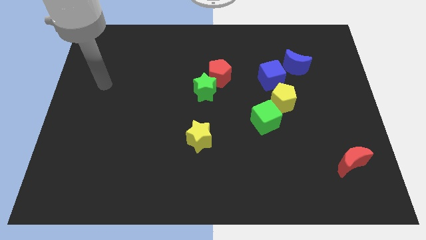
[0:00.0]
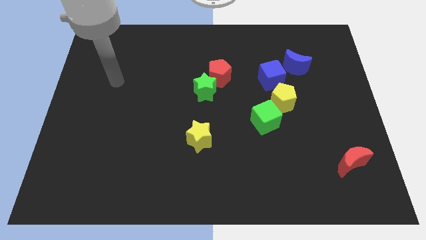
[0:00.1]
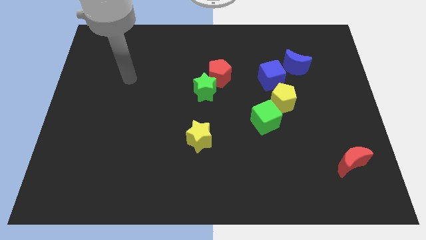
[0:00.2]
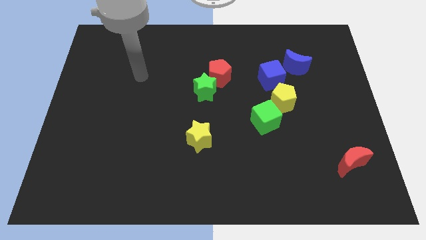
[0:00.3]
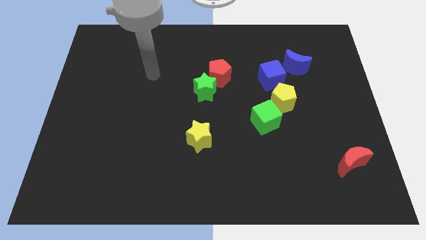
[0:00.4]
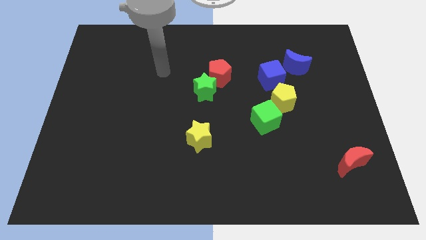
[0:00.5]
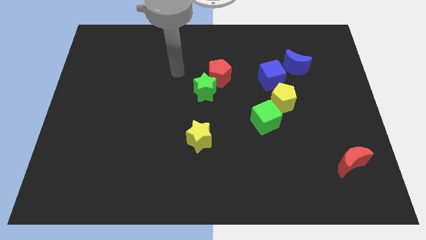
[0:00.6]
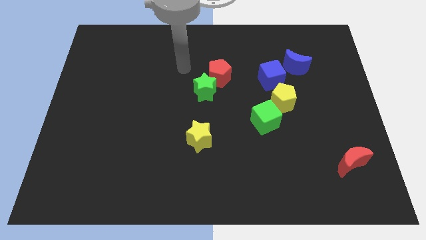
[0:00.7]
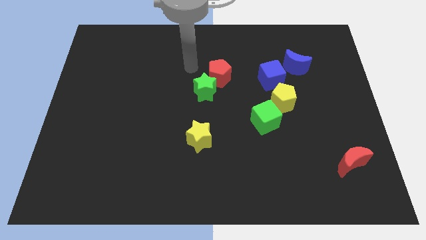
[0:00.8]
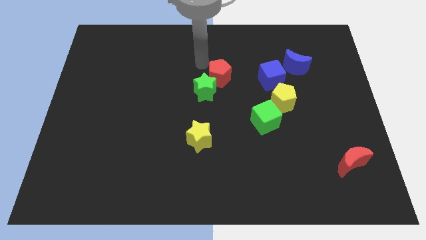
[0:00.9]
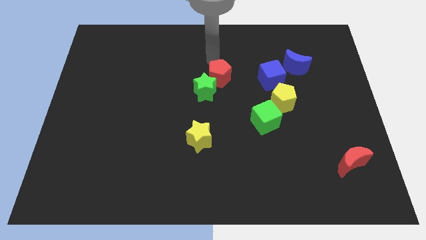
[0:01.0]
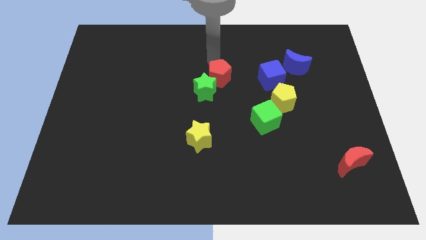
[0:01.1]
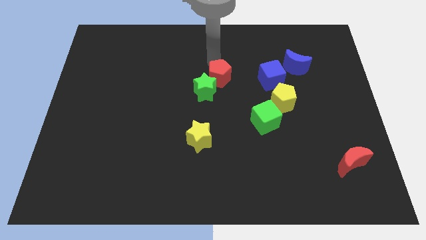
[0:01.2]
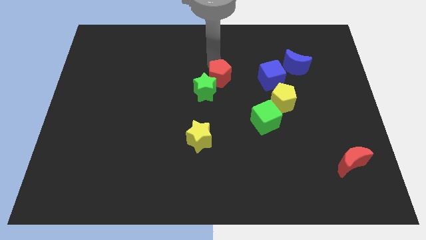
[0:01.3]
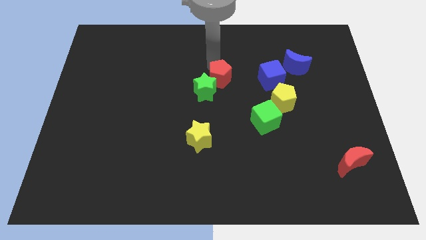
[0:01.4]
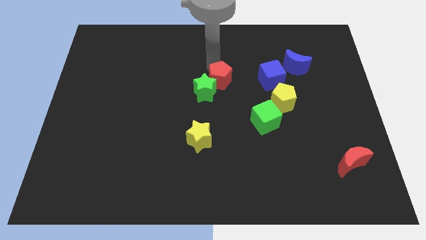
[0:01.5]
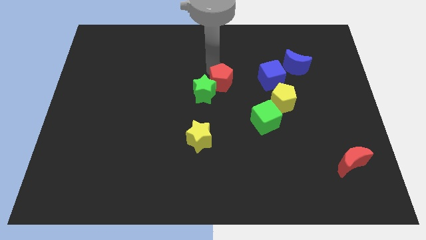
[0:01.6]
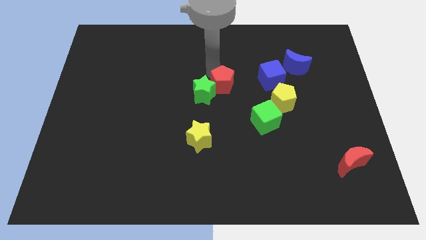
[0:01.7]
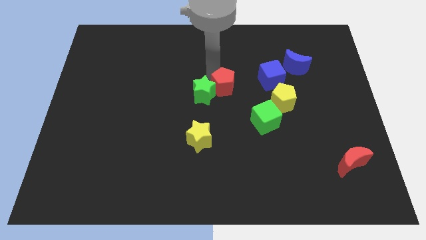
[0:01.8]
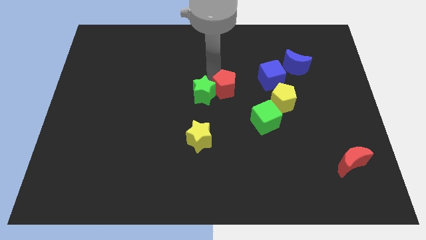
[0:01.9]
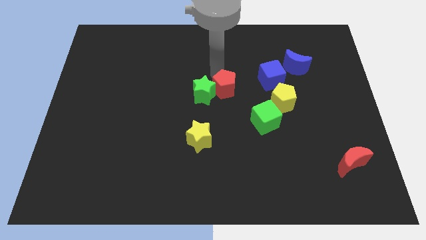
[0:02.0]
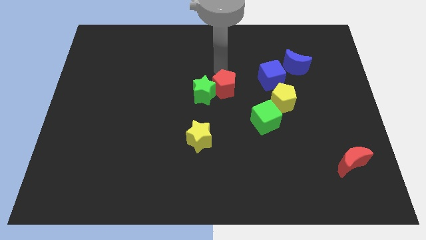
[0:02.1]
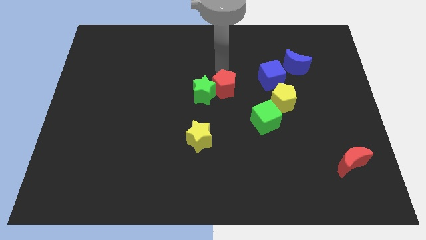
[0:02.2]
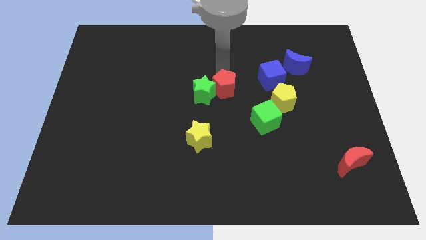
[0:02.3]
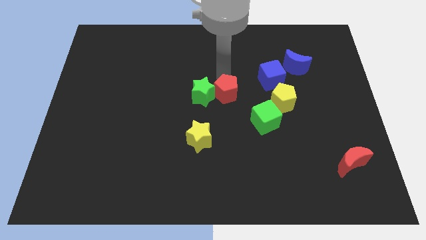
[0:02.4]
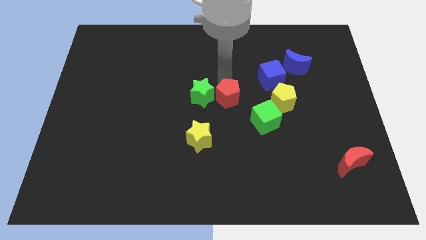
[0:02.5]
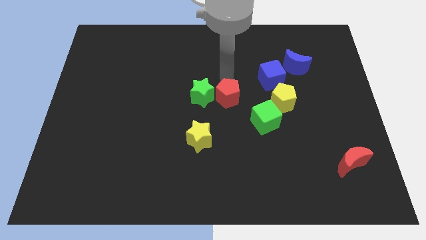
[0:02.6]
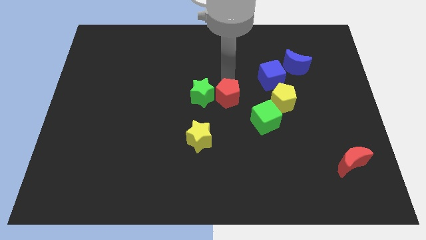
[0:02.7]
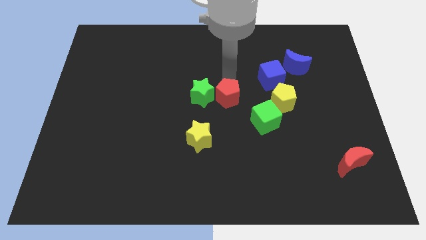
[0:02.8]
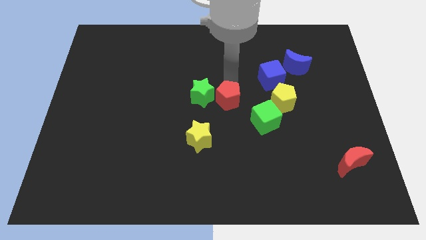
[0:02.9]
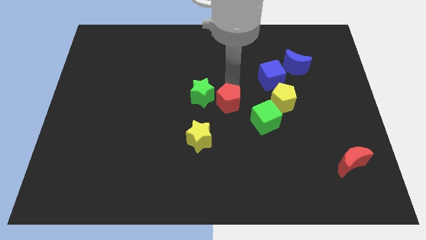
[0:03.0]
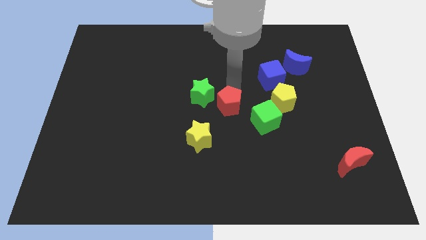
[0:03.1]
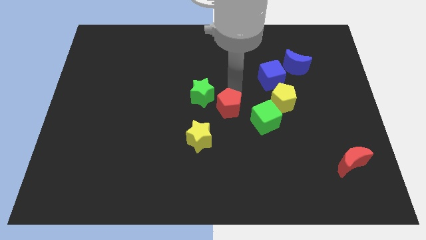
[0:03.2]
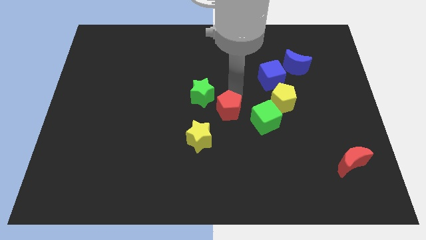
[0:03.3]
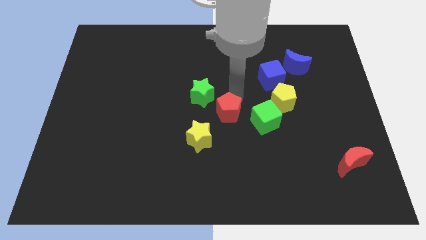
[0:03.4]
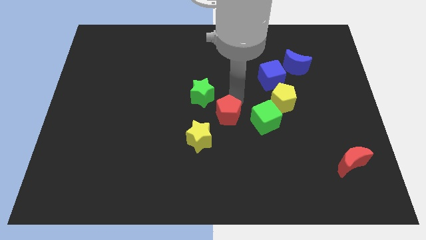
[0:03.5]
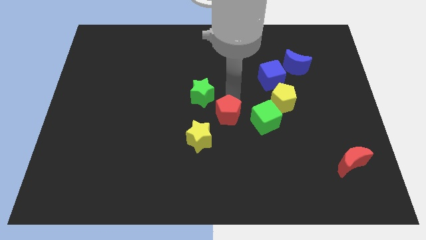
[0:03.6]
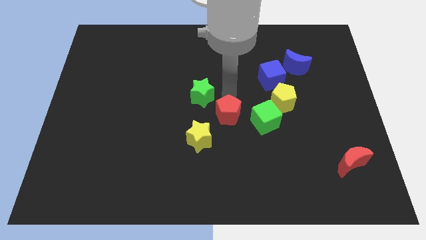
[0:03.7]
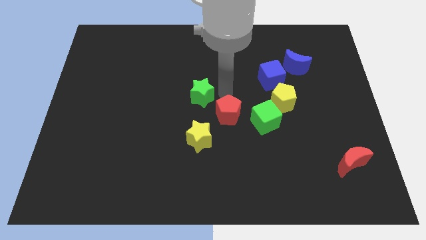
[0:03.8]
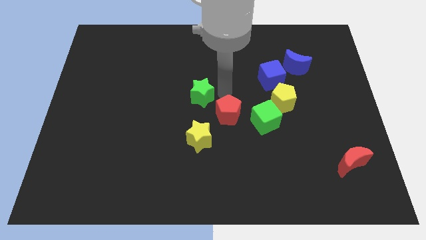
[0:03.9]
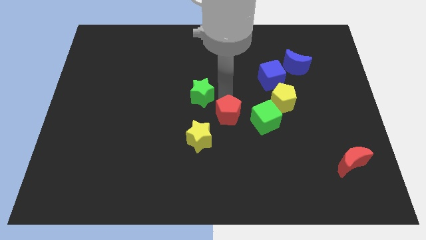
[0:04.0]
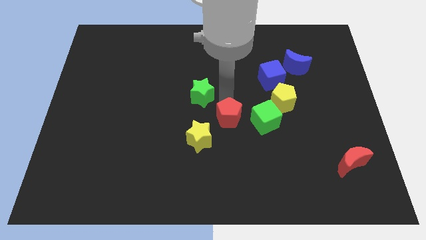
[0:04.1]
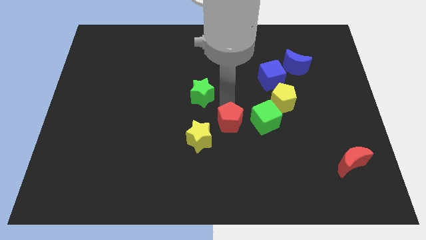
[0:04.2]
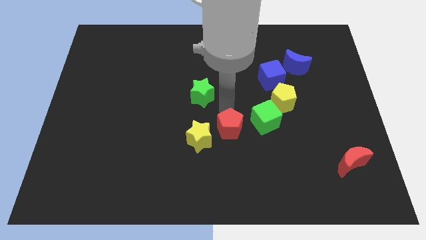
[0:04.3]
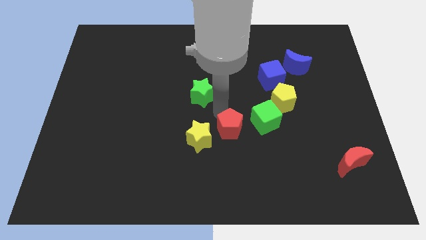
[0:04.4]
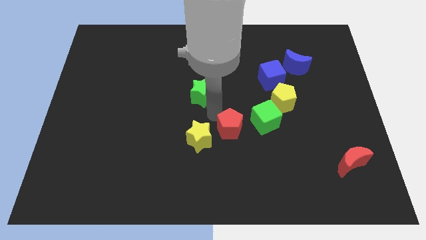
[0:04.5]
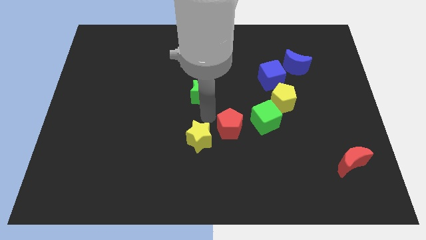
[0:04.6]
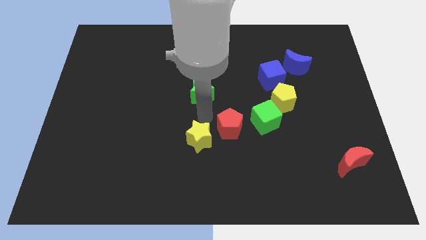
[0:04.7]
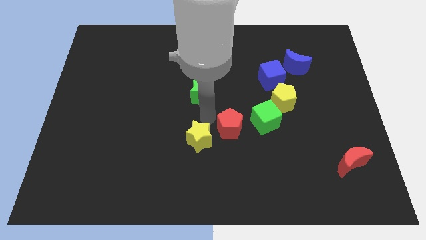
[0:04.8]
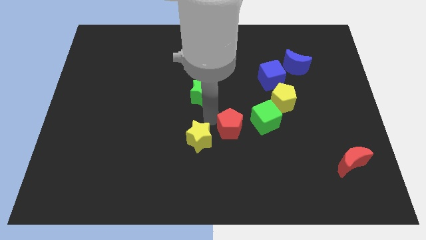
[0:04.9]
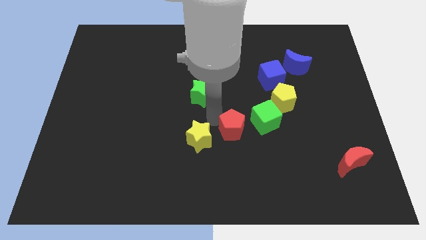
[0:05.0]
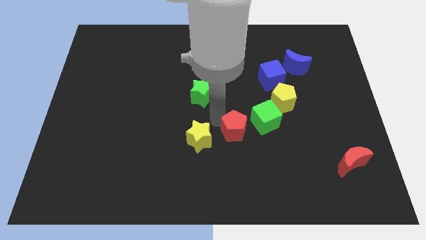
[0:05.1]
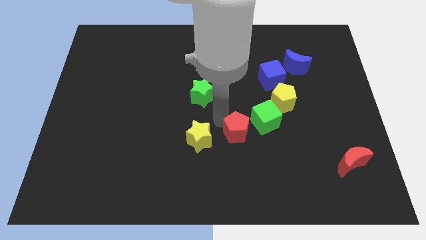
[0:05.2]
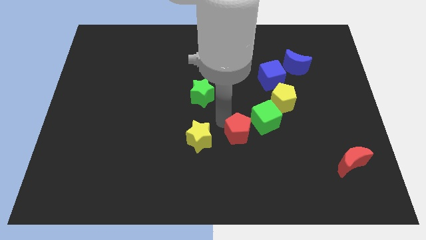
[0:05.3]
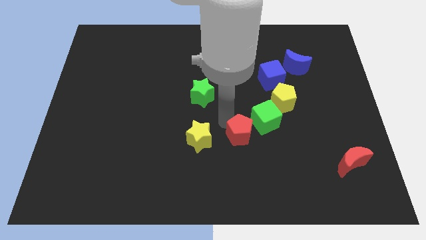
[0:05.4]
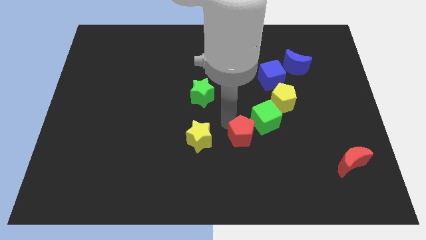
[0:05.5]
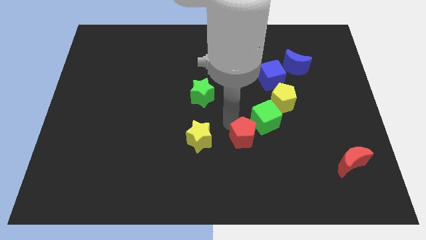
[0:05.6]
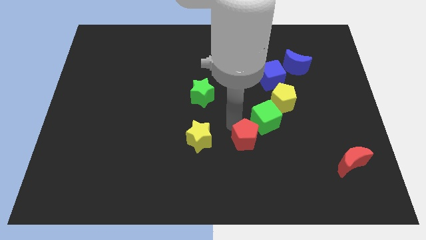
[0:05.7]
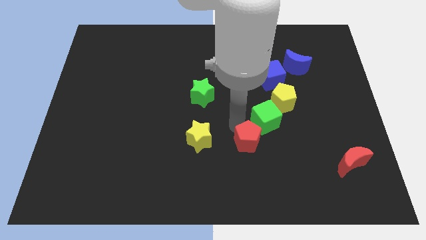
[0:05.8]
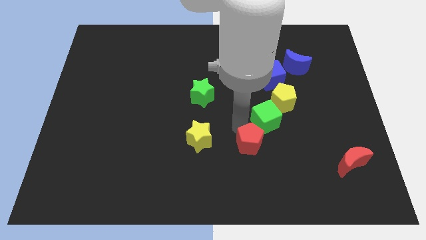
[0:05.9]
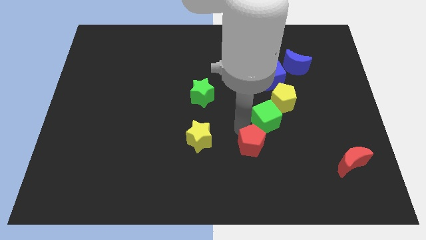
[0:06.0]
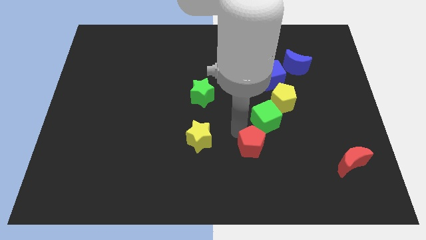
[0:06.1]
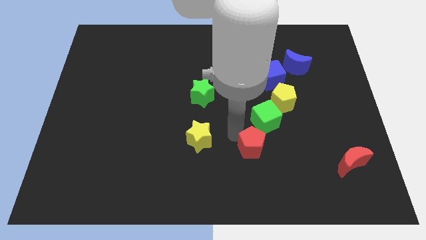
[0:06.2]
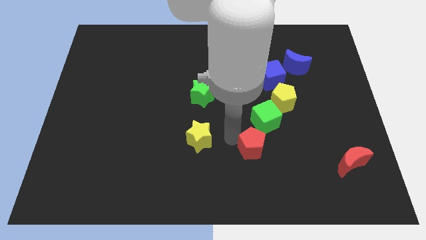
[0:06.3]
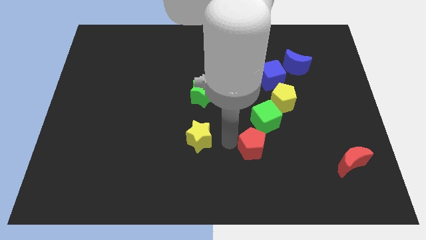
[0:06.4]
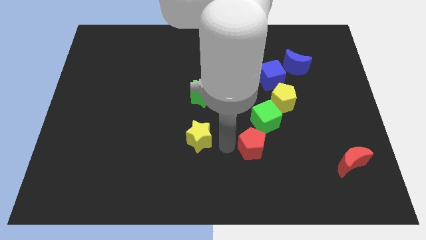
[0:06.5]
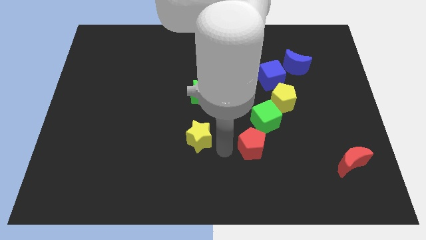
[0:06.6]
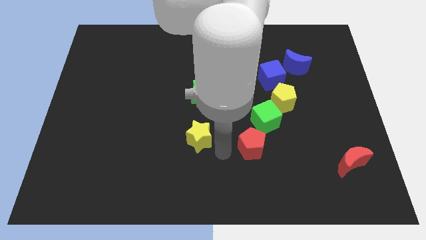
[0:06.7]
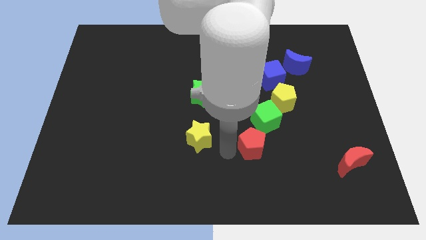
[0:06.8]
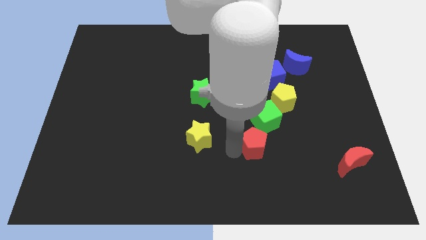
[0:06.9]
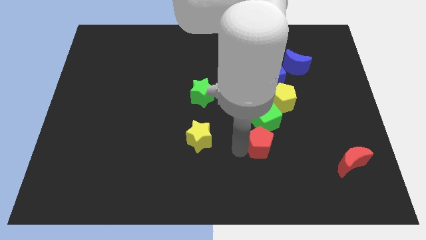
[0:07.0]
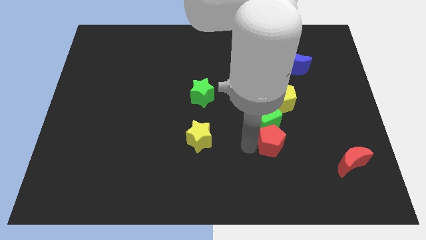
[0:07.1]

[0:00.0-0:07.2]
push the red pentagon down and right

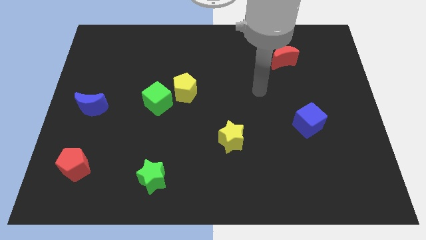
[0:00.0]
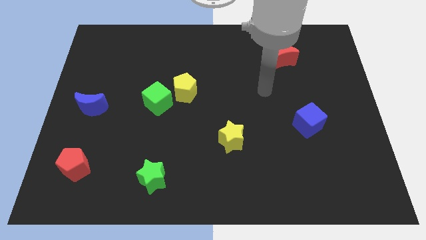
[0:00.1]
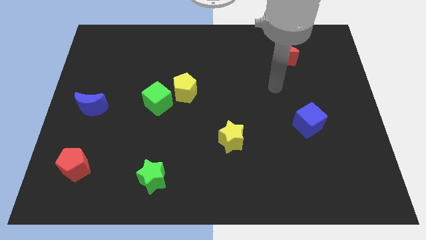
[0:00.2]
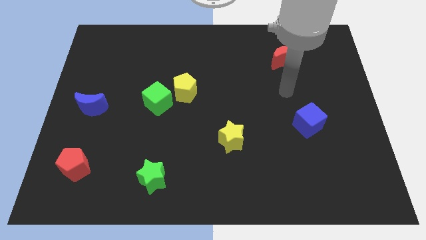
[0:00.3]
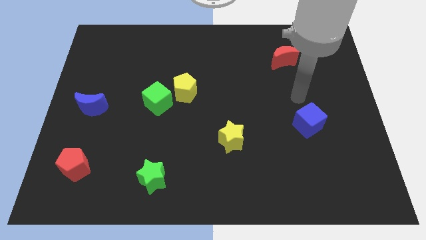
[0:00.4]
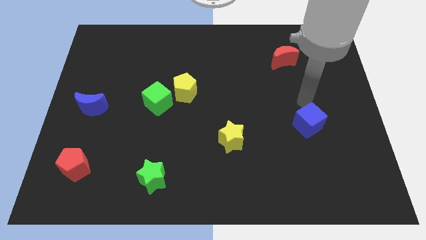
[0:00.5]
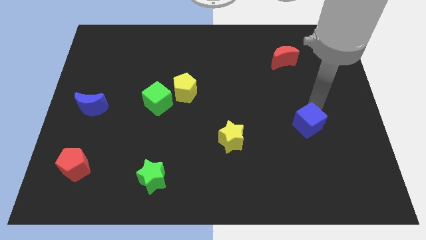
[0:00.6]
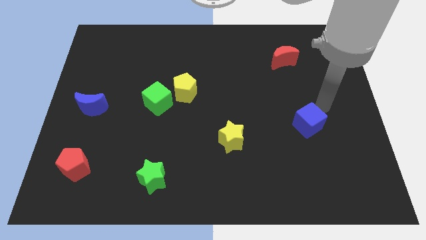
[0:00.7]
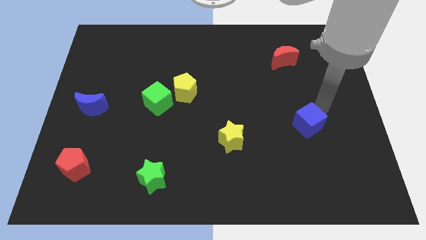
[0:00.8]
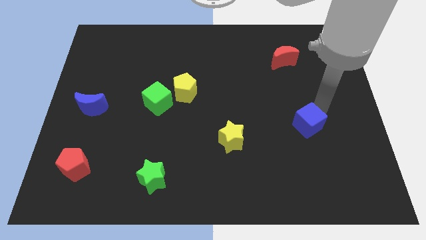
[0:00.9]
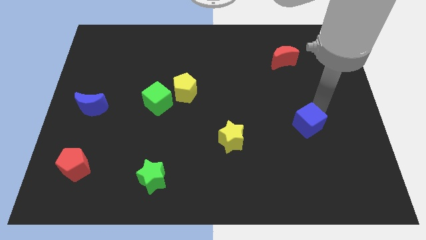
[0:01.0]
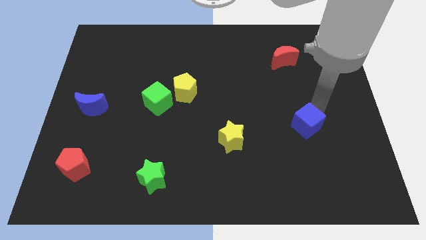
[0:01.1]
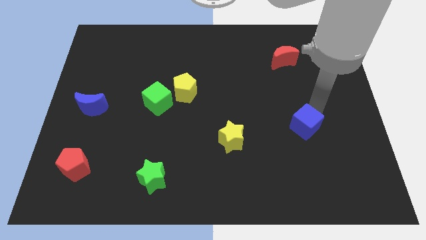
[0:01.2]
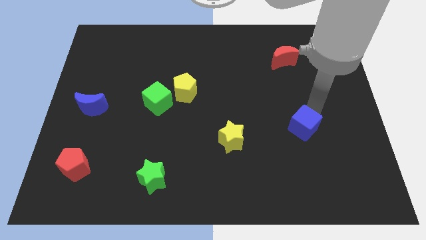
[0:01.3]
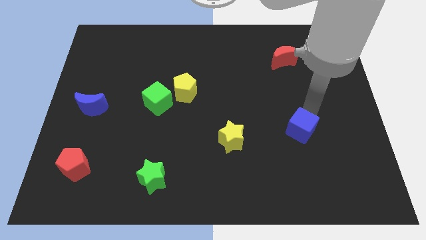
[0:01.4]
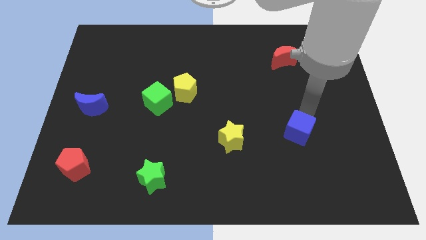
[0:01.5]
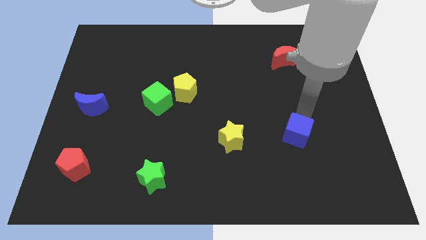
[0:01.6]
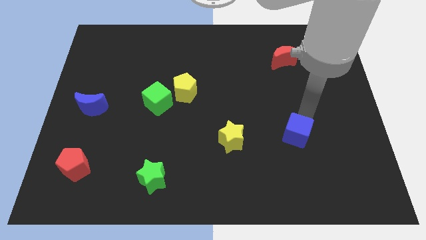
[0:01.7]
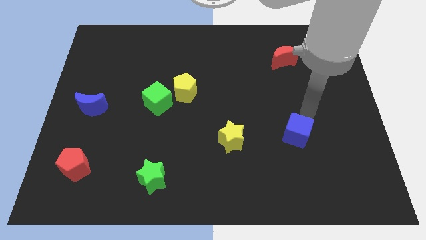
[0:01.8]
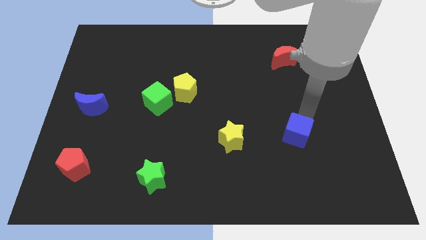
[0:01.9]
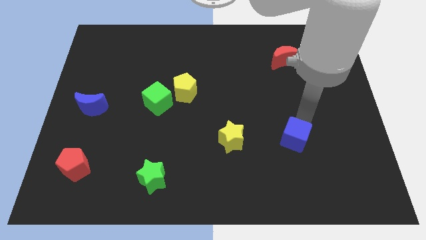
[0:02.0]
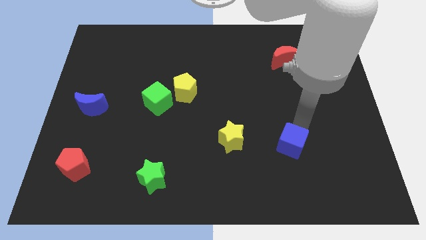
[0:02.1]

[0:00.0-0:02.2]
move the blue cube down and left diagonally a little
